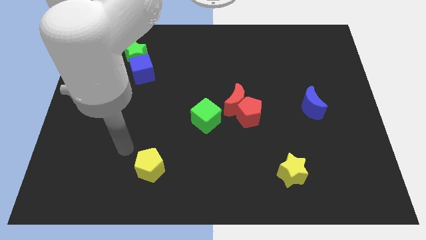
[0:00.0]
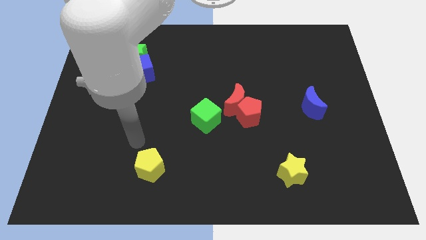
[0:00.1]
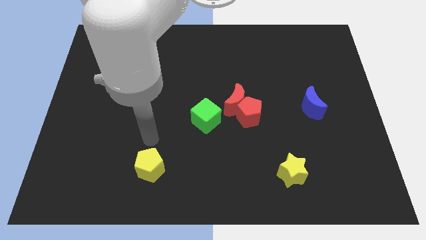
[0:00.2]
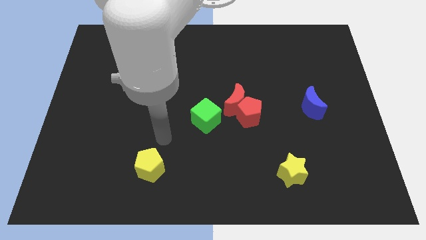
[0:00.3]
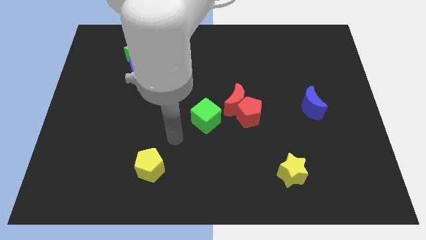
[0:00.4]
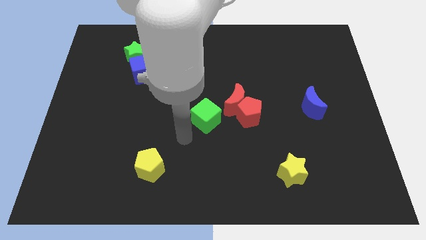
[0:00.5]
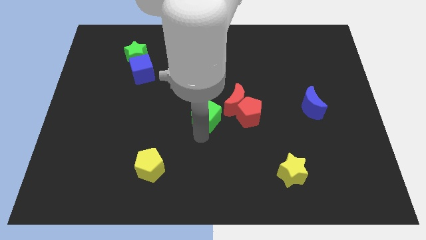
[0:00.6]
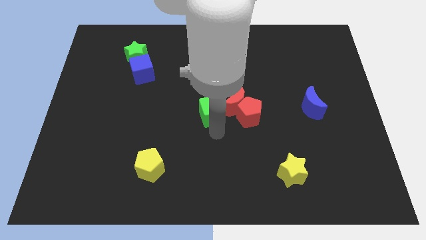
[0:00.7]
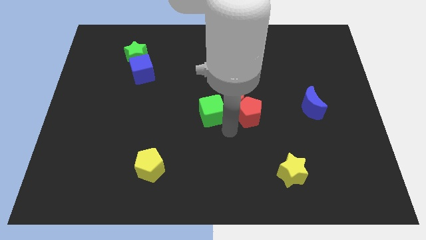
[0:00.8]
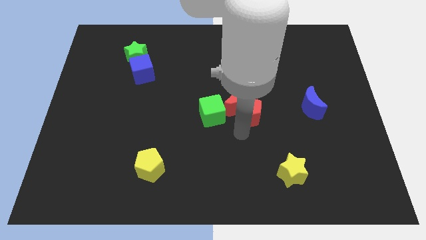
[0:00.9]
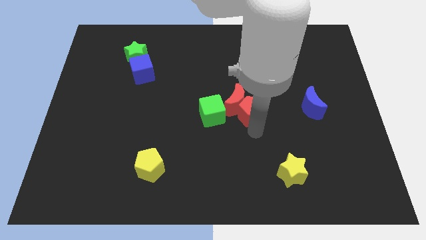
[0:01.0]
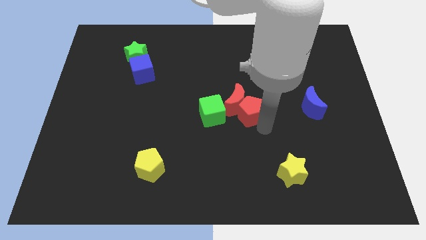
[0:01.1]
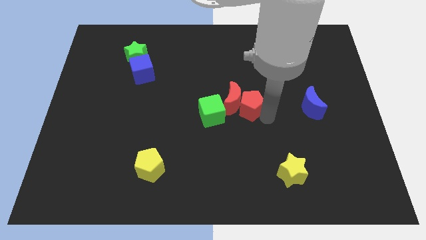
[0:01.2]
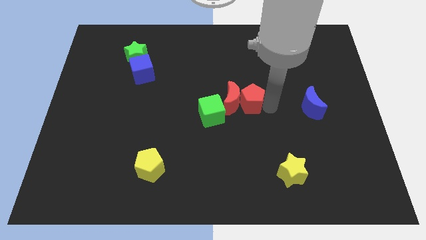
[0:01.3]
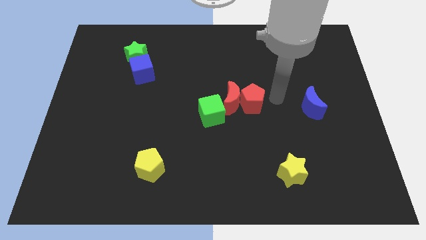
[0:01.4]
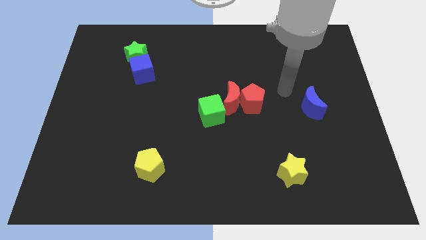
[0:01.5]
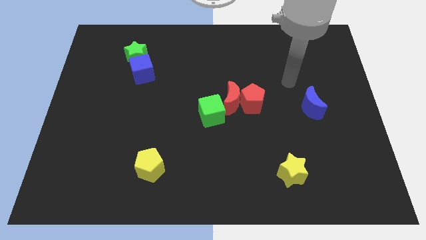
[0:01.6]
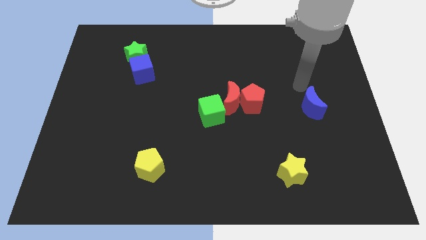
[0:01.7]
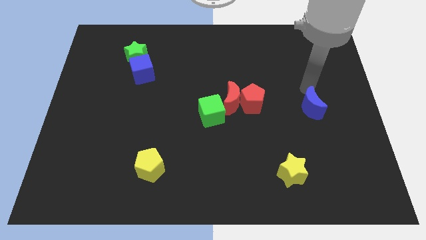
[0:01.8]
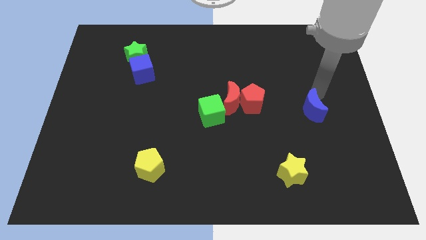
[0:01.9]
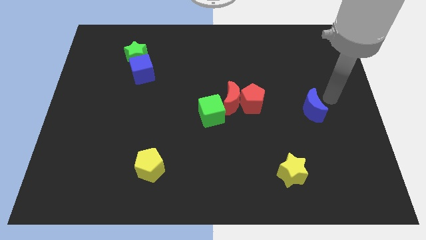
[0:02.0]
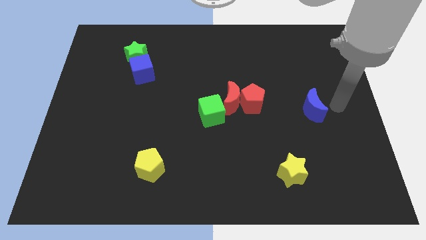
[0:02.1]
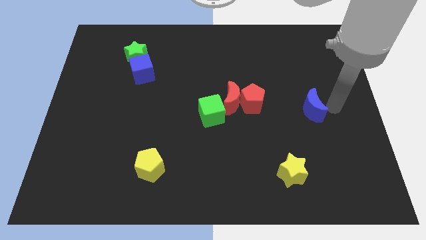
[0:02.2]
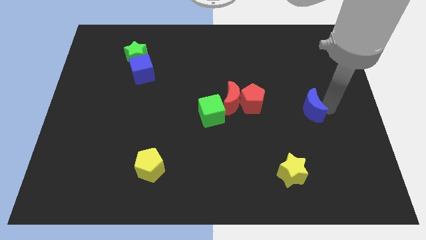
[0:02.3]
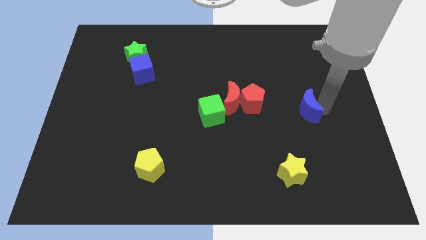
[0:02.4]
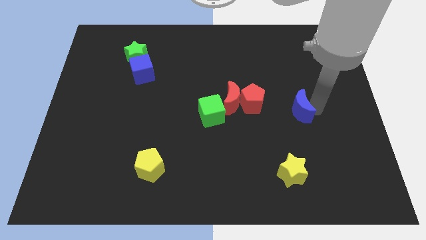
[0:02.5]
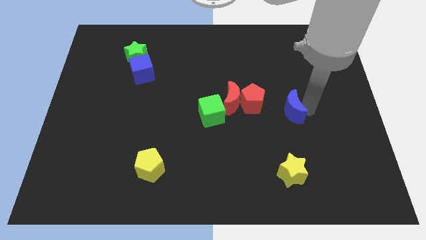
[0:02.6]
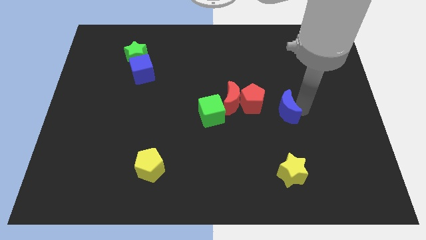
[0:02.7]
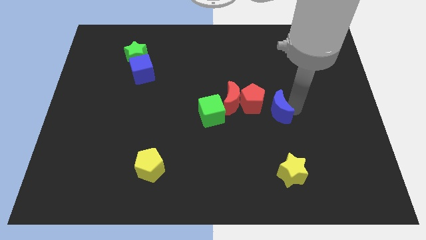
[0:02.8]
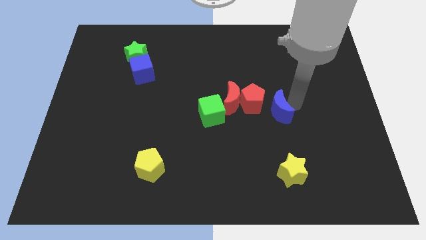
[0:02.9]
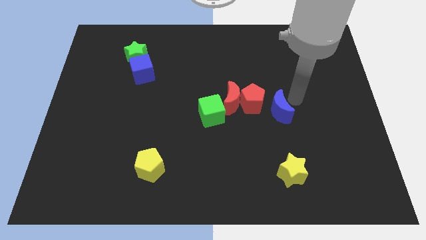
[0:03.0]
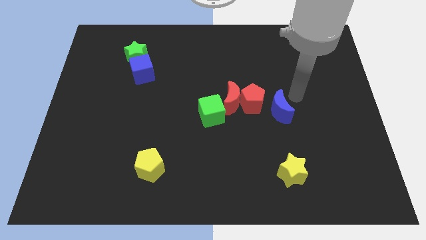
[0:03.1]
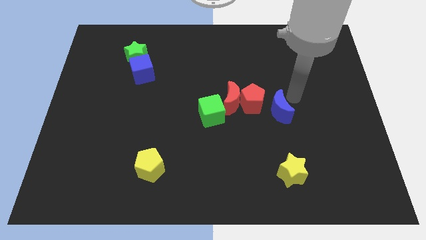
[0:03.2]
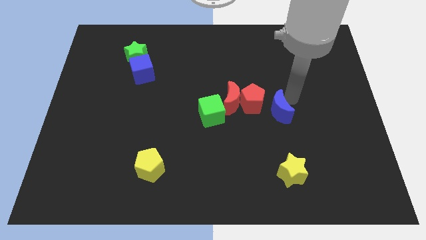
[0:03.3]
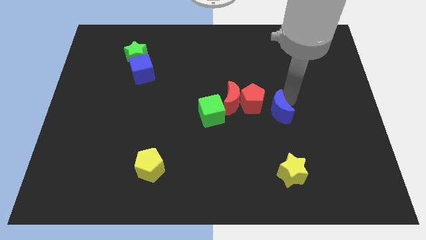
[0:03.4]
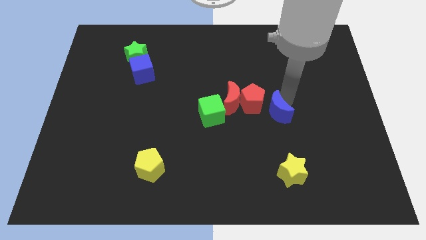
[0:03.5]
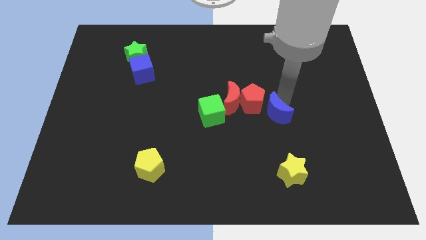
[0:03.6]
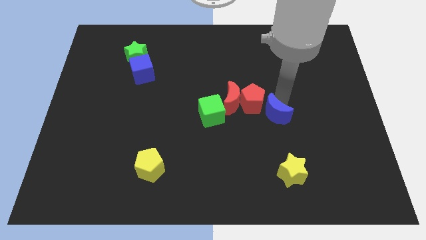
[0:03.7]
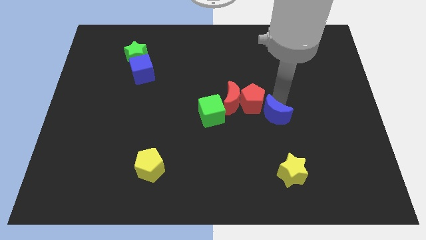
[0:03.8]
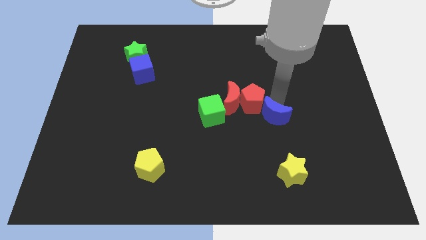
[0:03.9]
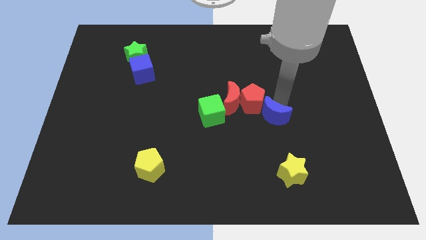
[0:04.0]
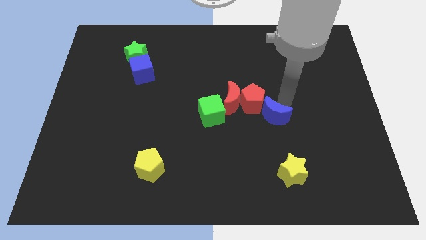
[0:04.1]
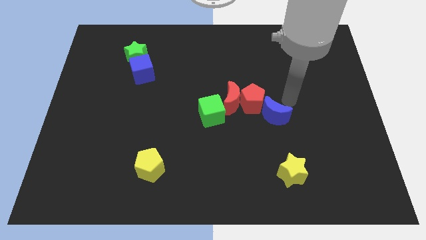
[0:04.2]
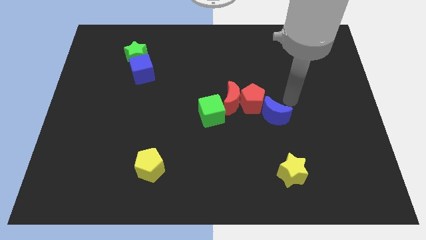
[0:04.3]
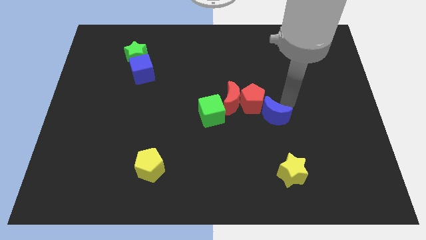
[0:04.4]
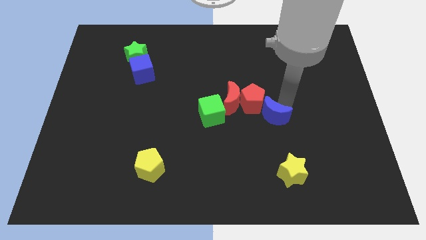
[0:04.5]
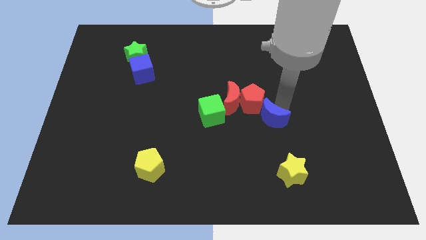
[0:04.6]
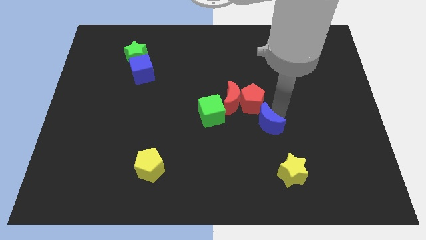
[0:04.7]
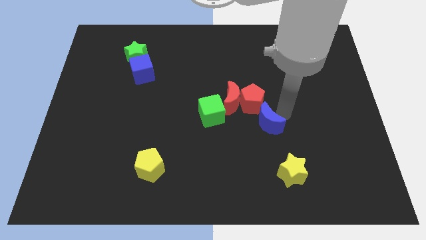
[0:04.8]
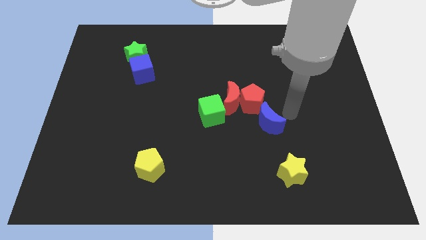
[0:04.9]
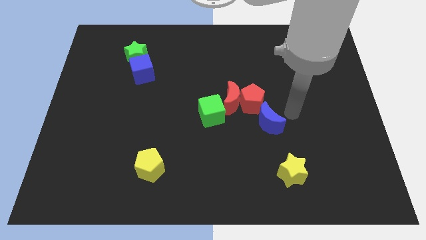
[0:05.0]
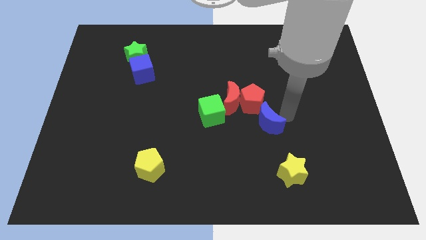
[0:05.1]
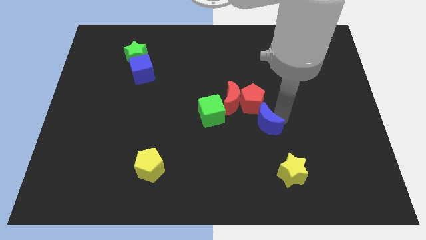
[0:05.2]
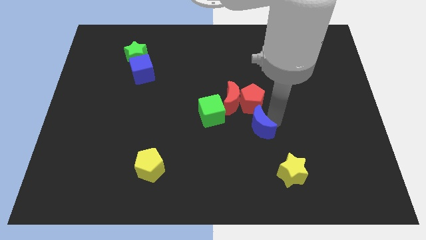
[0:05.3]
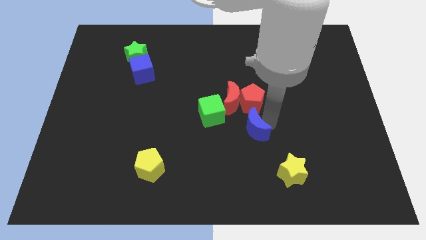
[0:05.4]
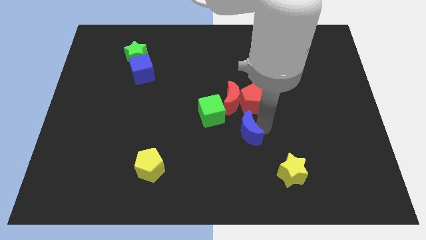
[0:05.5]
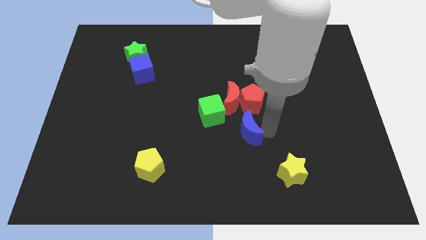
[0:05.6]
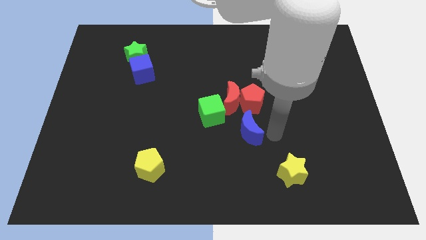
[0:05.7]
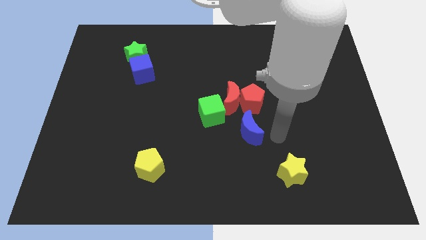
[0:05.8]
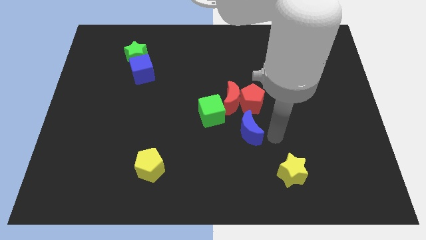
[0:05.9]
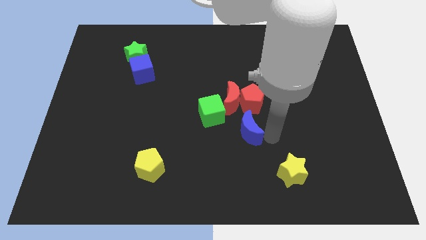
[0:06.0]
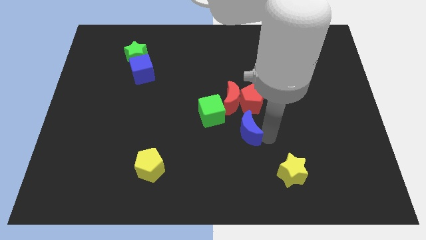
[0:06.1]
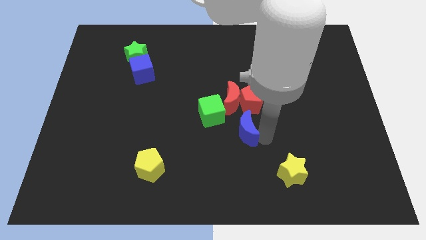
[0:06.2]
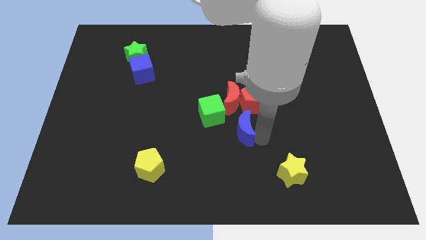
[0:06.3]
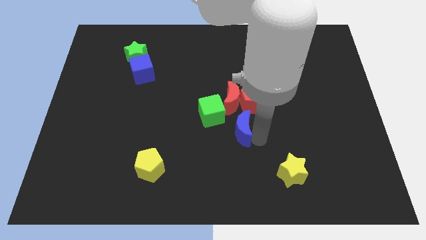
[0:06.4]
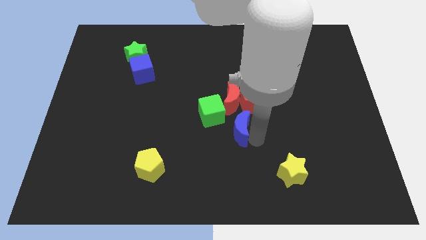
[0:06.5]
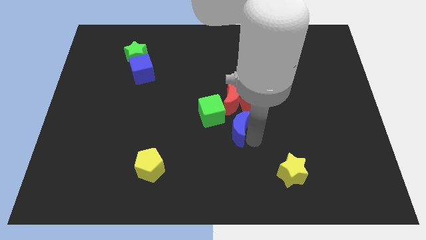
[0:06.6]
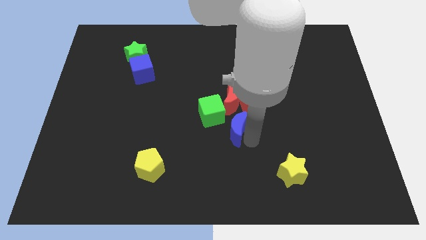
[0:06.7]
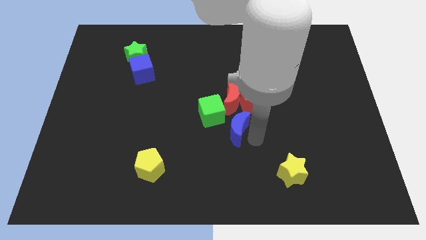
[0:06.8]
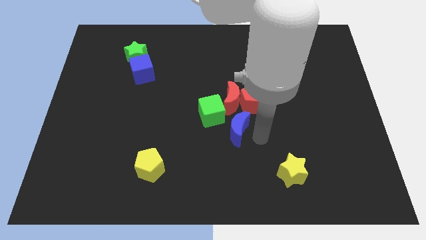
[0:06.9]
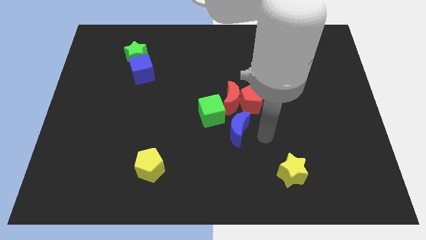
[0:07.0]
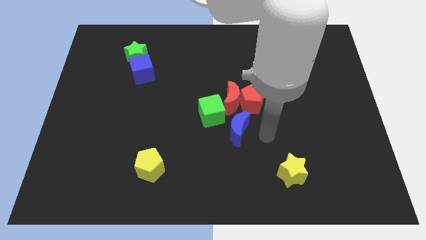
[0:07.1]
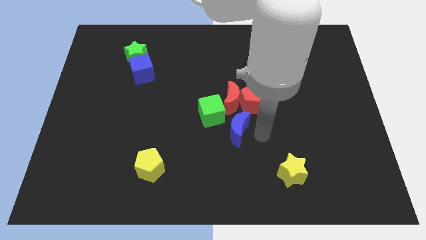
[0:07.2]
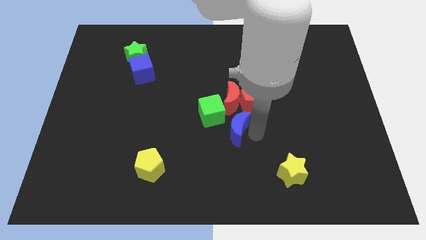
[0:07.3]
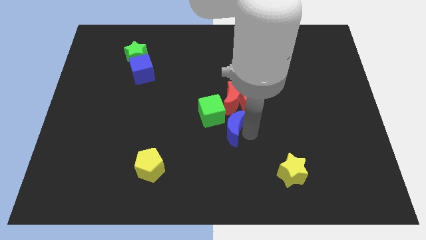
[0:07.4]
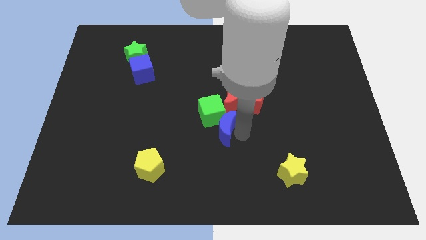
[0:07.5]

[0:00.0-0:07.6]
move the blue moon towards the green cube
